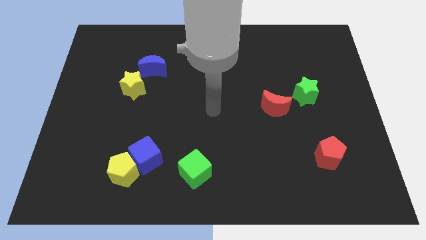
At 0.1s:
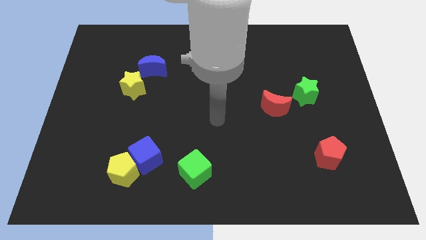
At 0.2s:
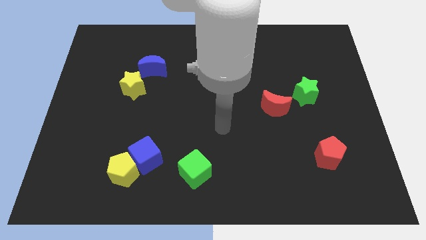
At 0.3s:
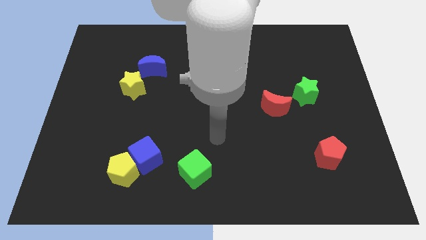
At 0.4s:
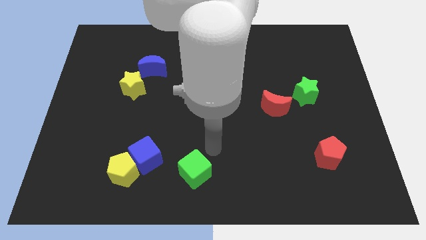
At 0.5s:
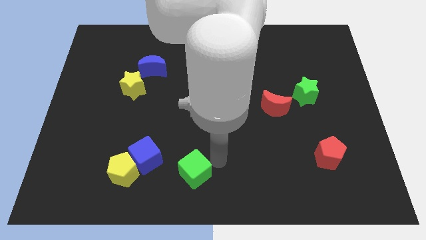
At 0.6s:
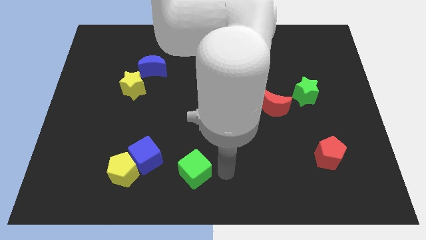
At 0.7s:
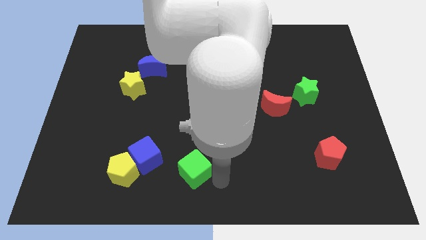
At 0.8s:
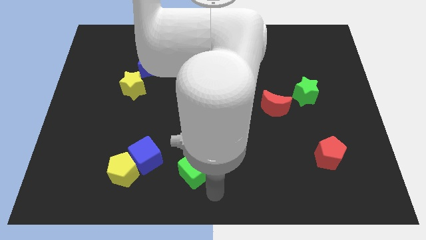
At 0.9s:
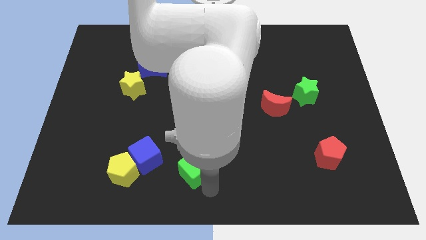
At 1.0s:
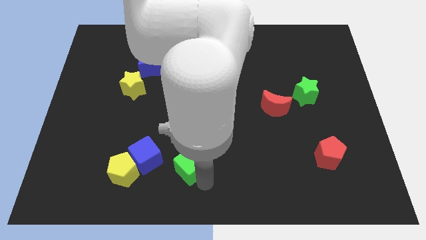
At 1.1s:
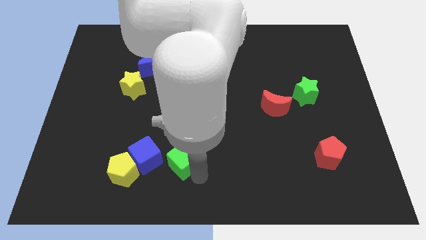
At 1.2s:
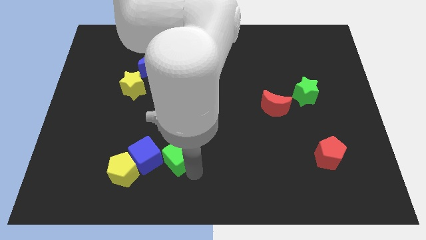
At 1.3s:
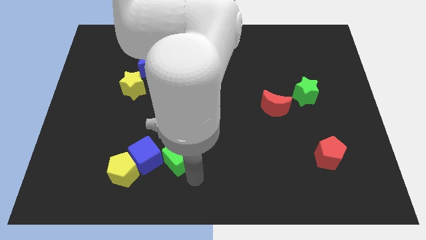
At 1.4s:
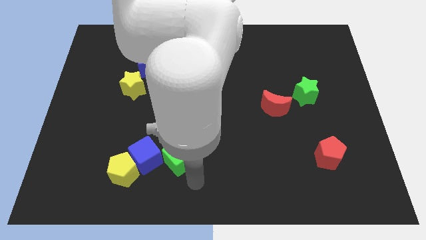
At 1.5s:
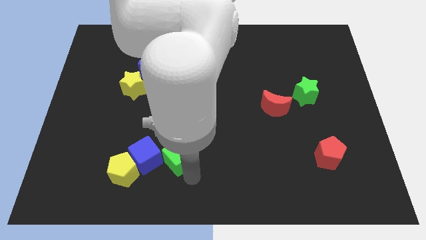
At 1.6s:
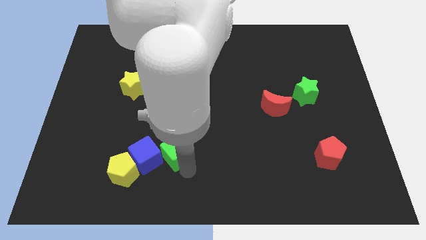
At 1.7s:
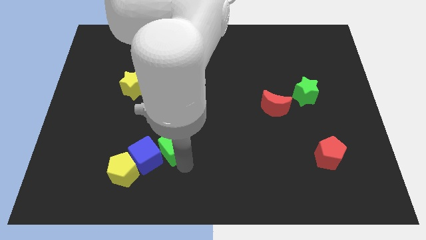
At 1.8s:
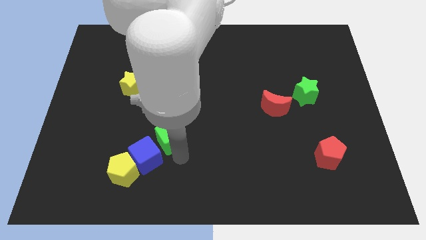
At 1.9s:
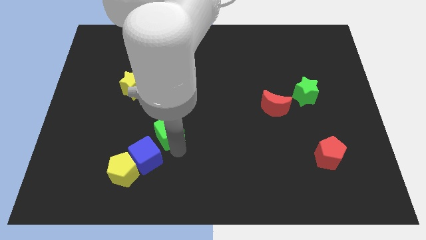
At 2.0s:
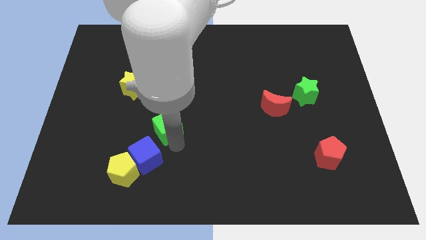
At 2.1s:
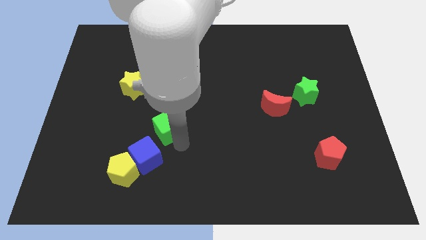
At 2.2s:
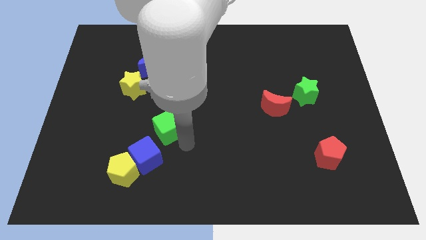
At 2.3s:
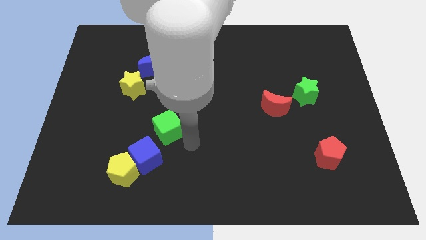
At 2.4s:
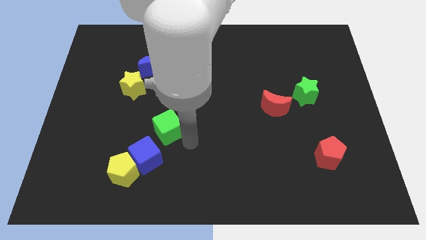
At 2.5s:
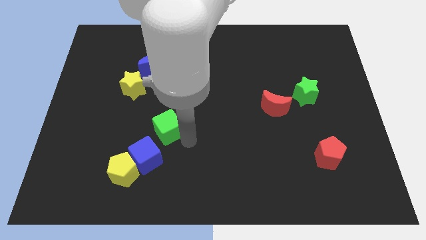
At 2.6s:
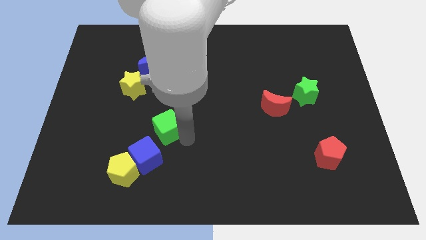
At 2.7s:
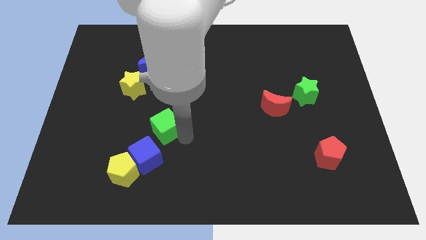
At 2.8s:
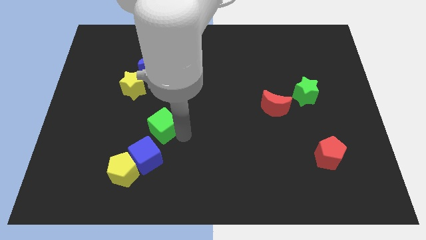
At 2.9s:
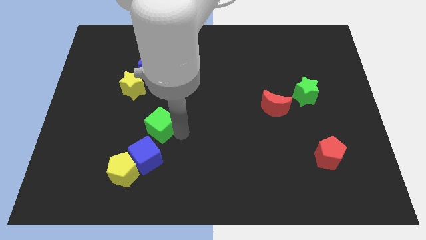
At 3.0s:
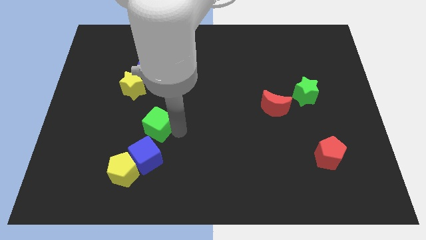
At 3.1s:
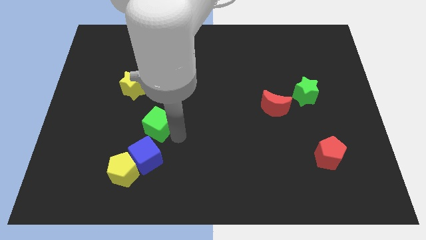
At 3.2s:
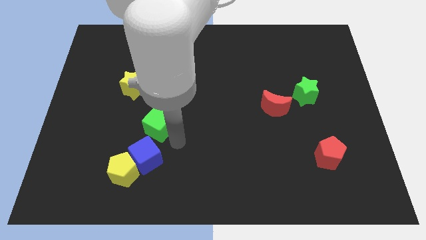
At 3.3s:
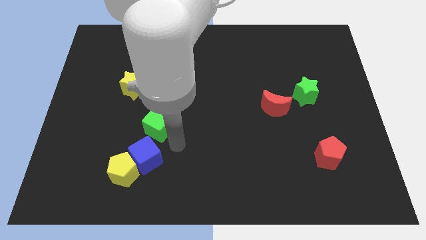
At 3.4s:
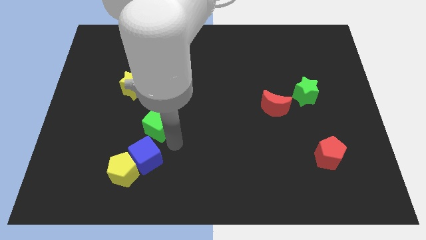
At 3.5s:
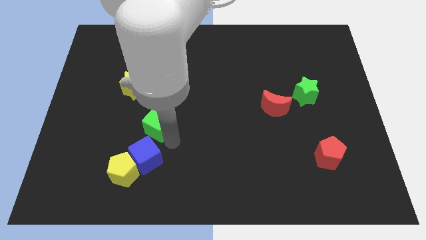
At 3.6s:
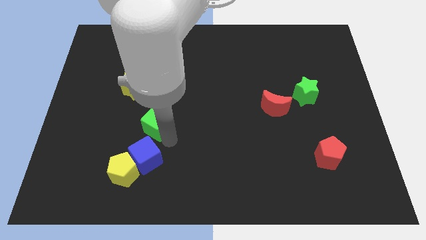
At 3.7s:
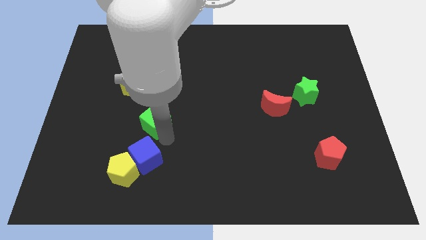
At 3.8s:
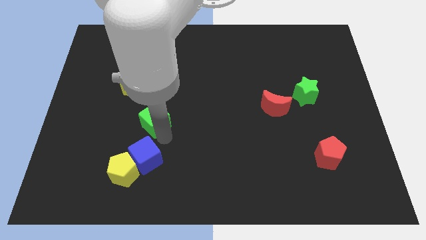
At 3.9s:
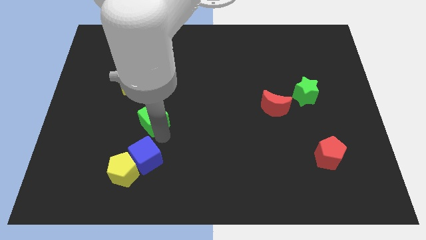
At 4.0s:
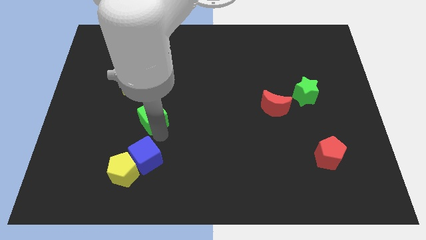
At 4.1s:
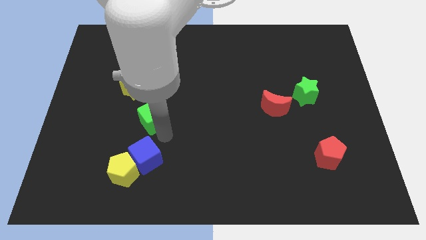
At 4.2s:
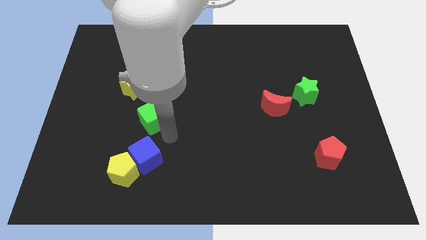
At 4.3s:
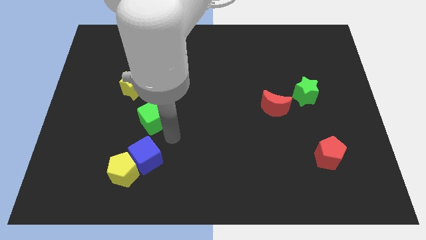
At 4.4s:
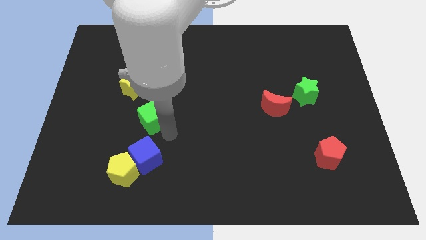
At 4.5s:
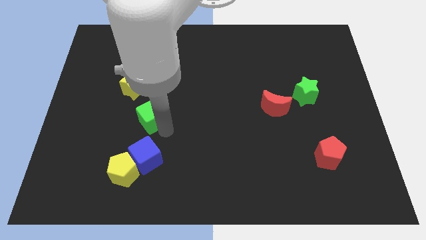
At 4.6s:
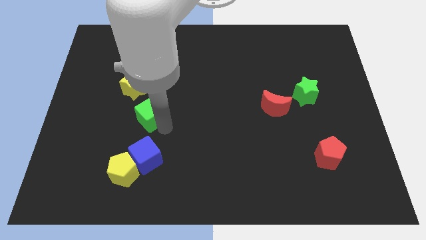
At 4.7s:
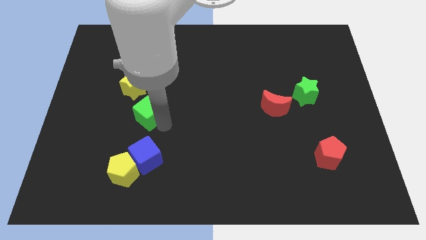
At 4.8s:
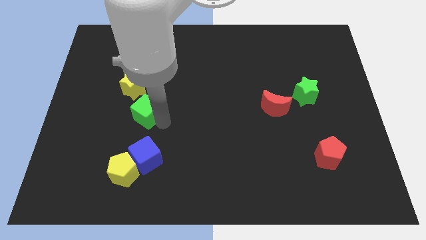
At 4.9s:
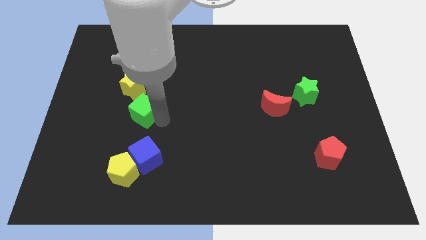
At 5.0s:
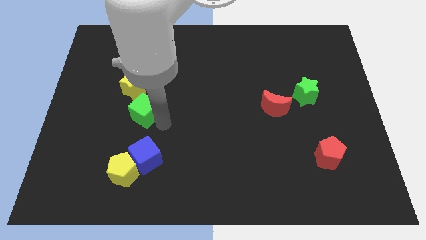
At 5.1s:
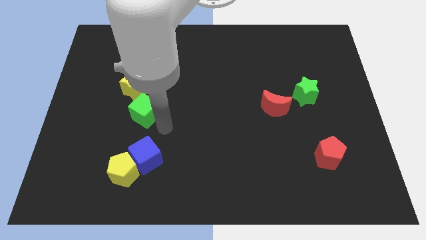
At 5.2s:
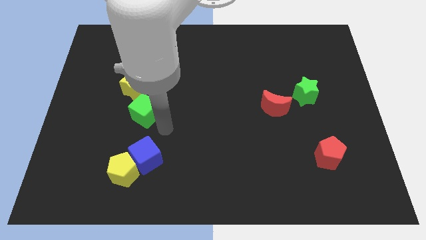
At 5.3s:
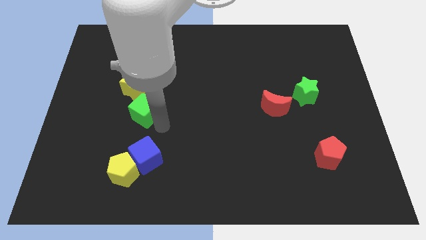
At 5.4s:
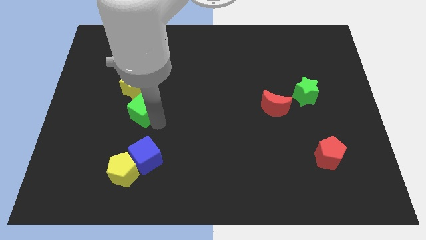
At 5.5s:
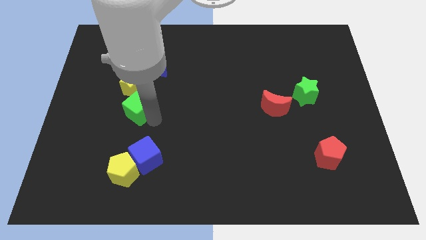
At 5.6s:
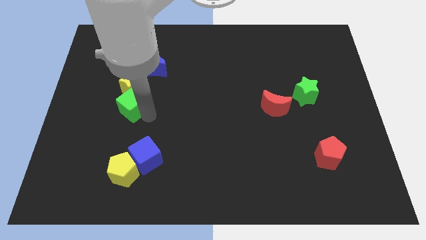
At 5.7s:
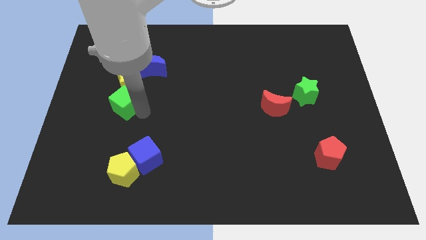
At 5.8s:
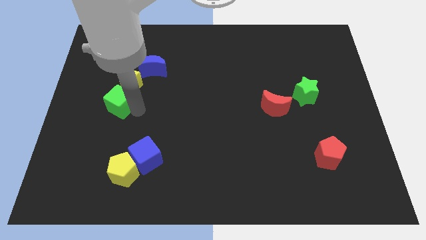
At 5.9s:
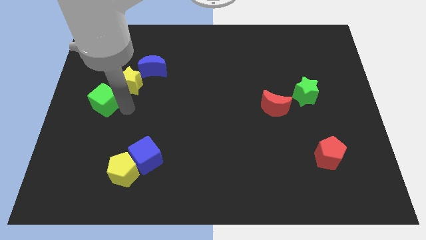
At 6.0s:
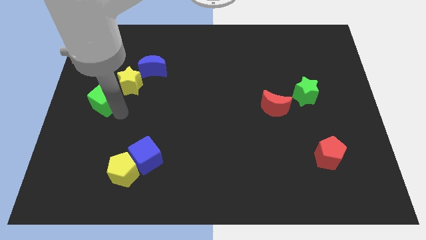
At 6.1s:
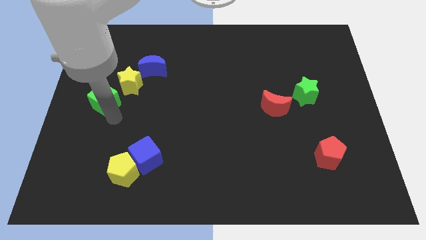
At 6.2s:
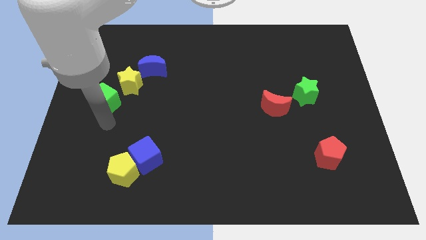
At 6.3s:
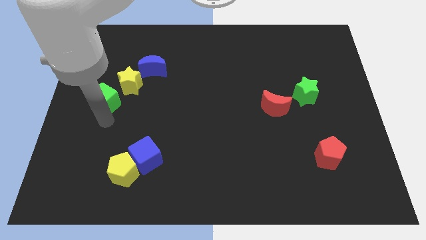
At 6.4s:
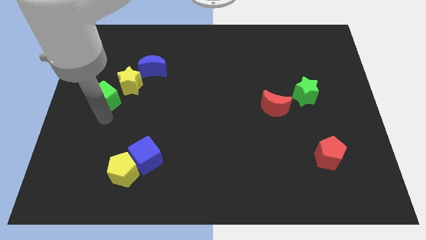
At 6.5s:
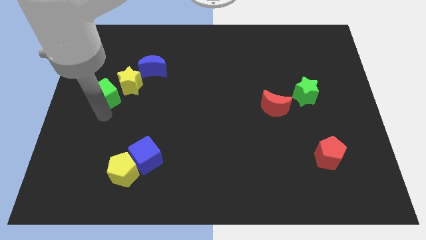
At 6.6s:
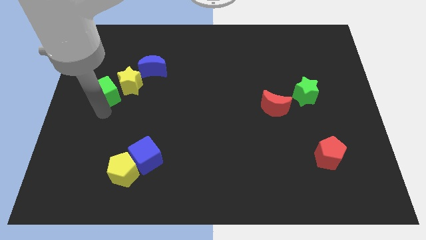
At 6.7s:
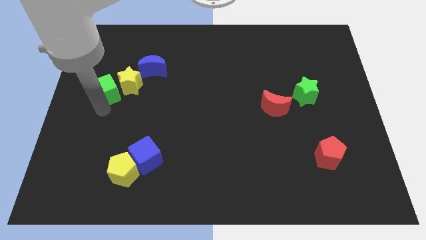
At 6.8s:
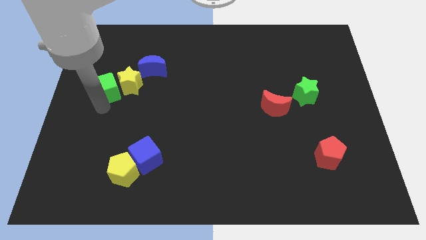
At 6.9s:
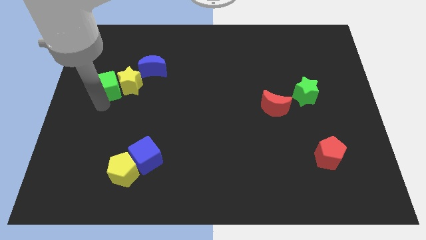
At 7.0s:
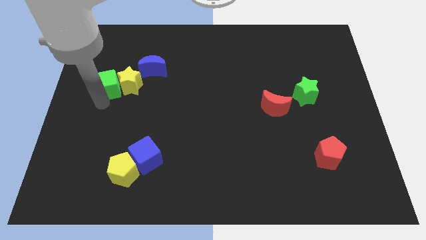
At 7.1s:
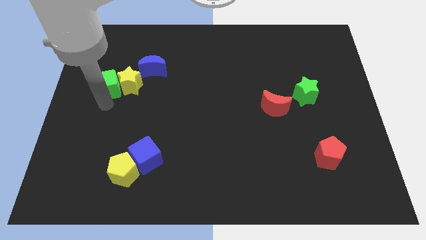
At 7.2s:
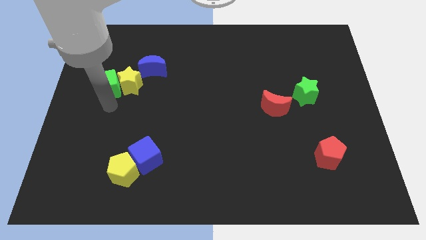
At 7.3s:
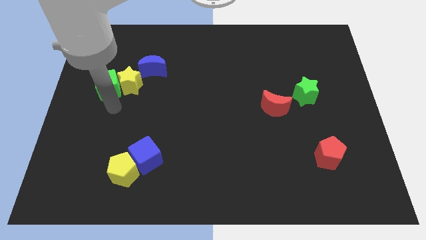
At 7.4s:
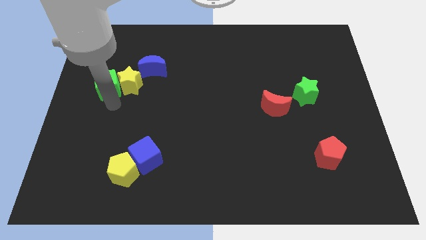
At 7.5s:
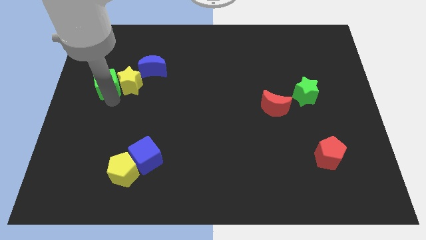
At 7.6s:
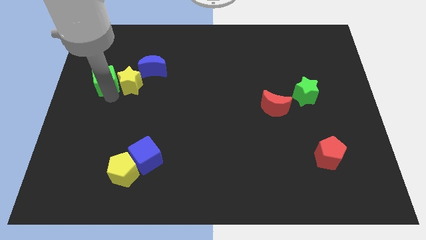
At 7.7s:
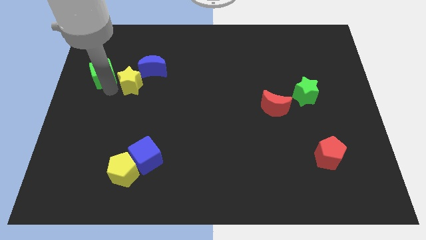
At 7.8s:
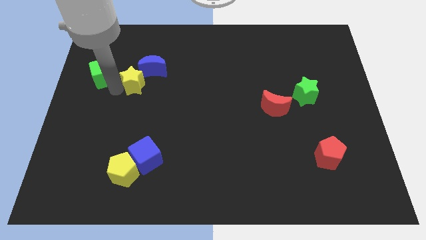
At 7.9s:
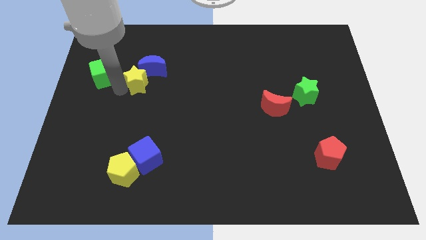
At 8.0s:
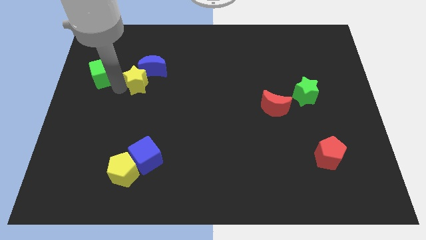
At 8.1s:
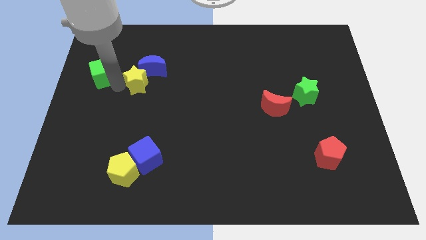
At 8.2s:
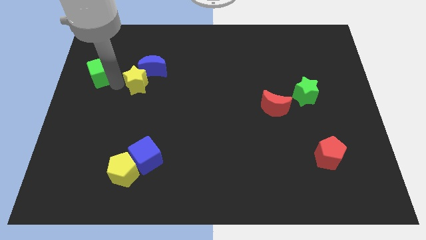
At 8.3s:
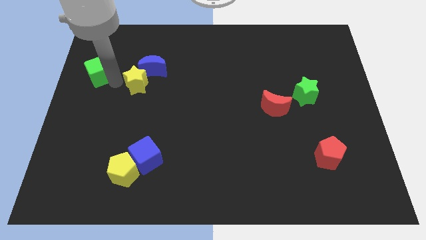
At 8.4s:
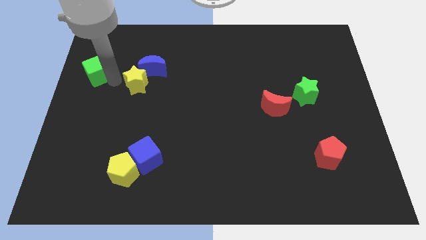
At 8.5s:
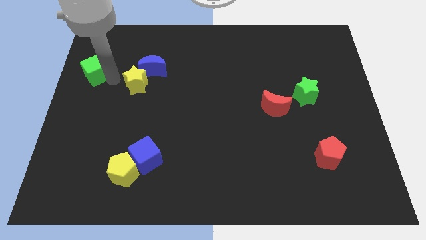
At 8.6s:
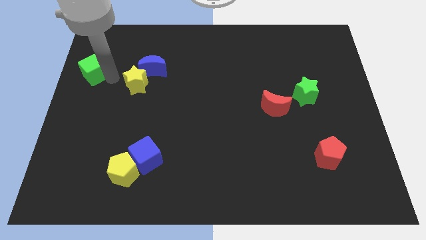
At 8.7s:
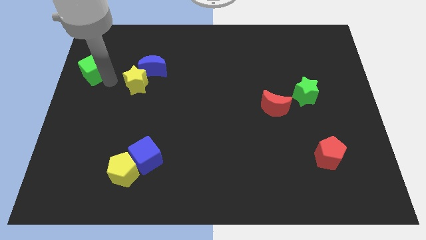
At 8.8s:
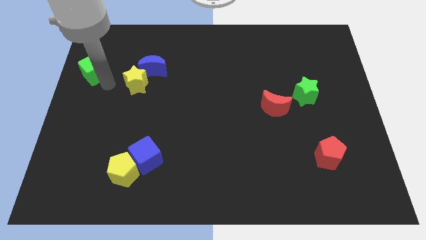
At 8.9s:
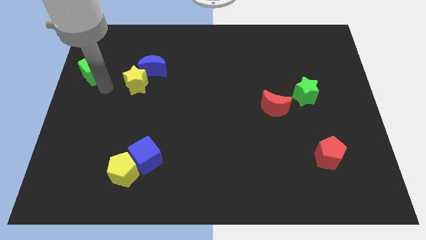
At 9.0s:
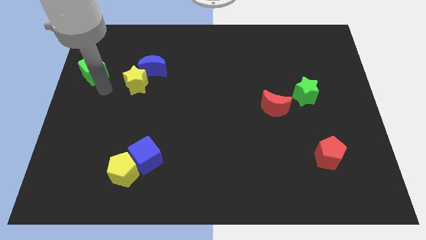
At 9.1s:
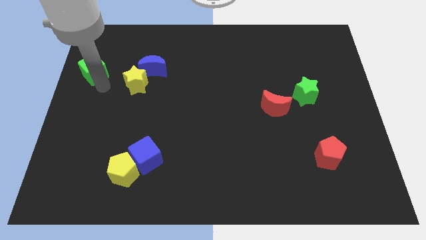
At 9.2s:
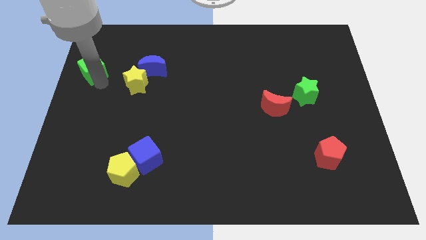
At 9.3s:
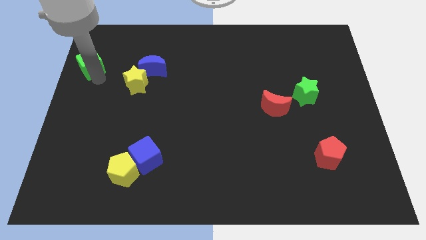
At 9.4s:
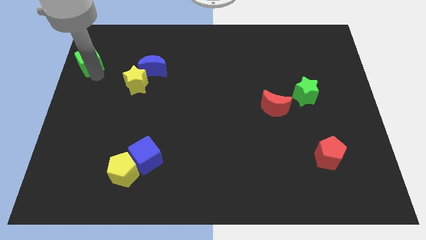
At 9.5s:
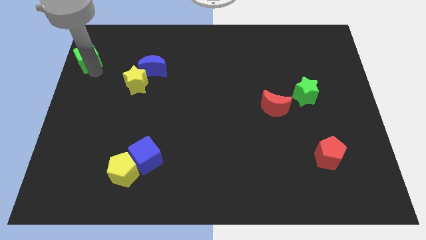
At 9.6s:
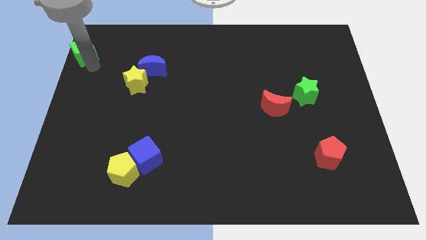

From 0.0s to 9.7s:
move the green cube to the upper left corner
